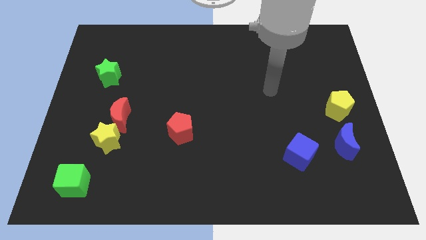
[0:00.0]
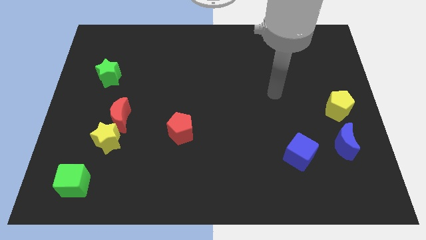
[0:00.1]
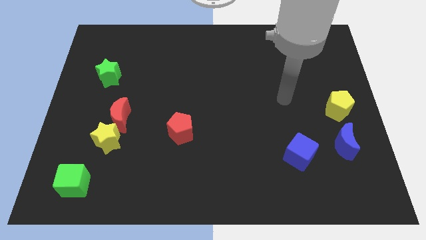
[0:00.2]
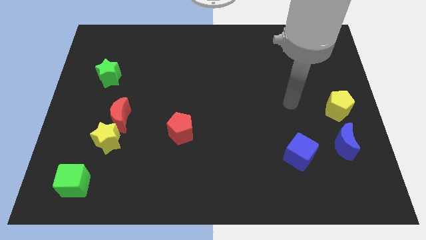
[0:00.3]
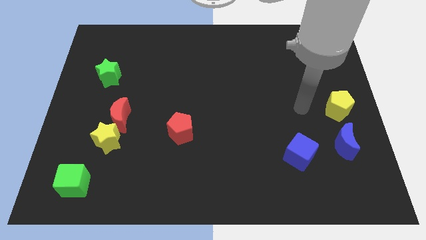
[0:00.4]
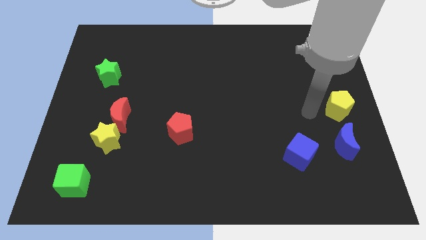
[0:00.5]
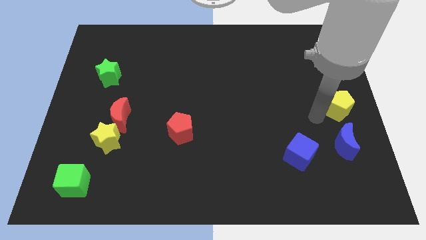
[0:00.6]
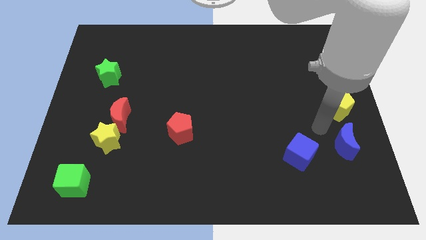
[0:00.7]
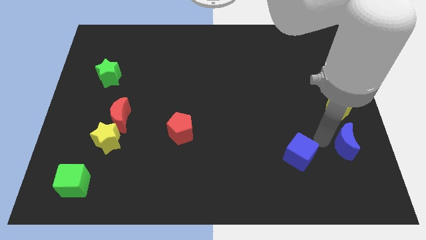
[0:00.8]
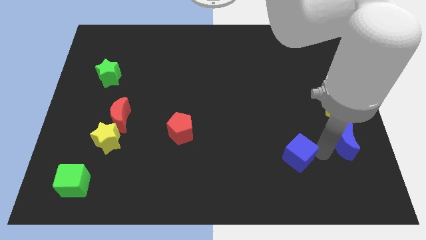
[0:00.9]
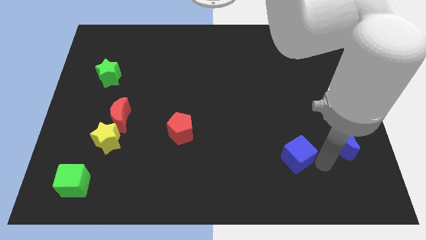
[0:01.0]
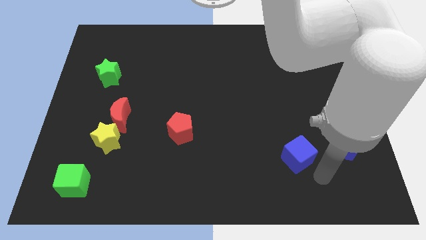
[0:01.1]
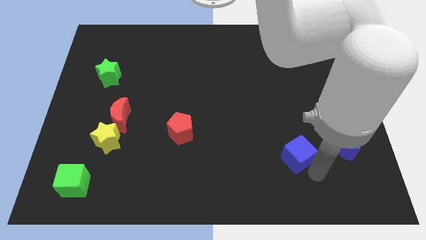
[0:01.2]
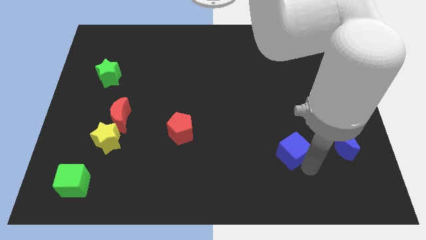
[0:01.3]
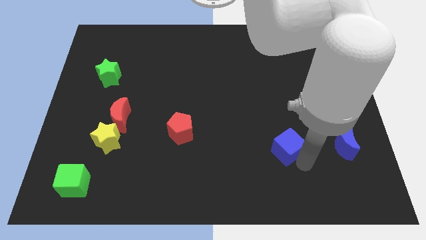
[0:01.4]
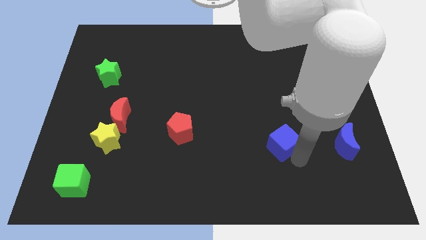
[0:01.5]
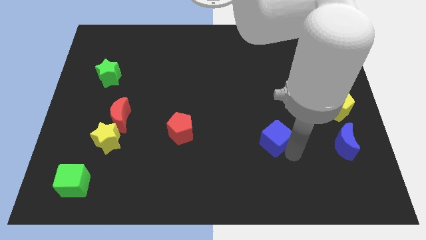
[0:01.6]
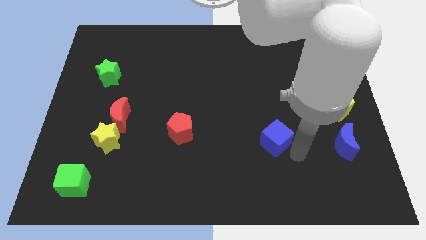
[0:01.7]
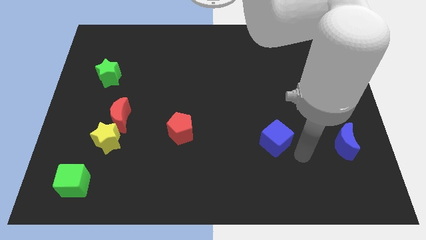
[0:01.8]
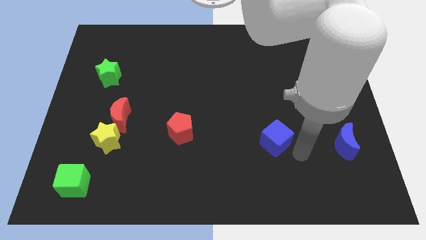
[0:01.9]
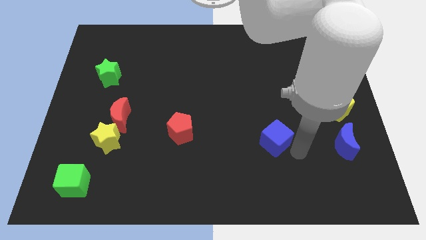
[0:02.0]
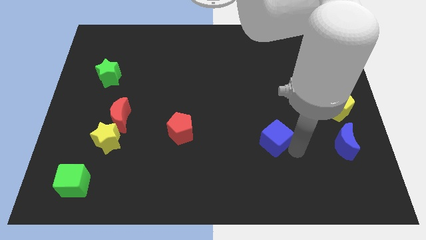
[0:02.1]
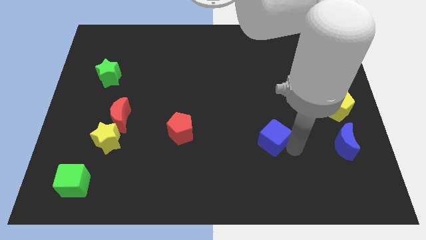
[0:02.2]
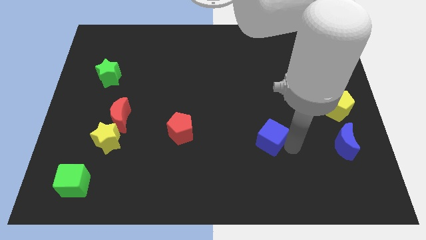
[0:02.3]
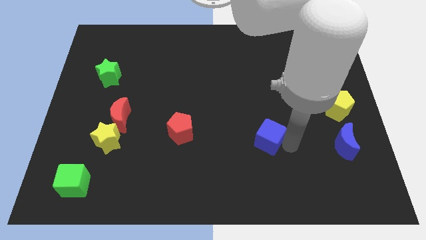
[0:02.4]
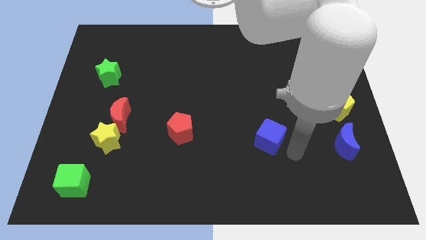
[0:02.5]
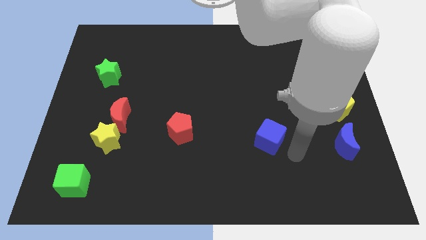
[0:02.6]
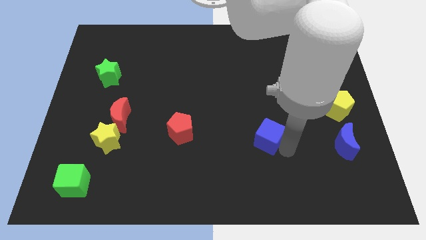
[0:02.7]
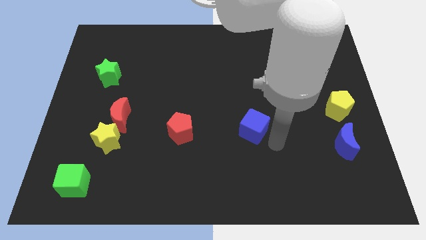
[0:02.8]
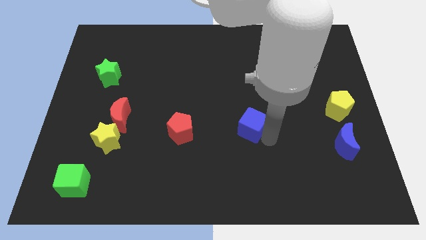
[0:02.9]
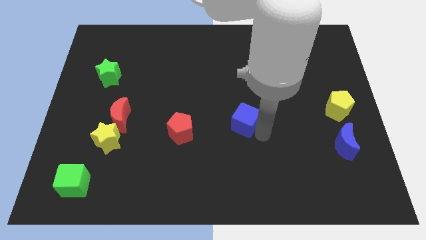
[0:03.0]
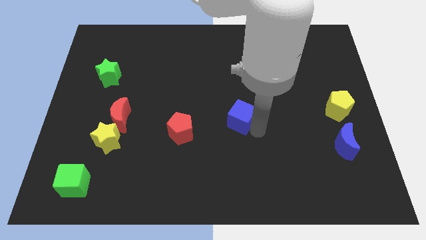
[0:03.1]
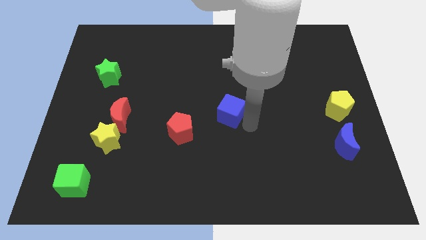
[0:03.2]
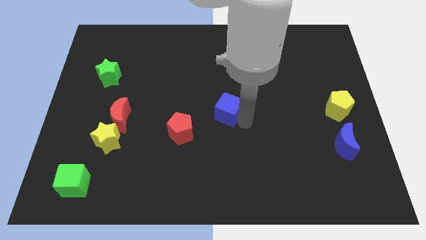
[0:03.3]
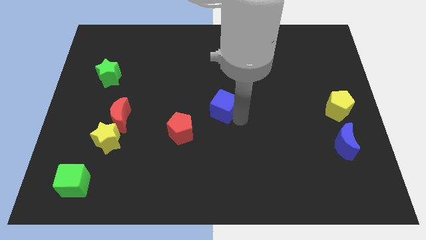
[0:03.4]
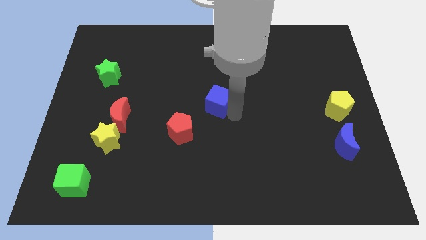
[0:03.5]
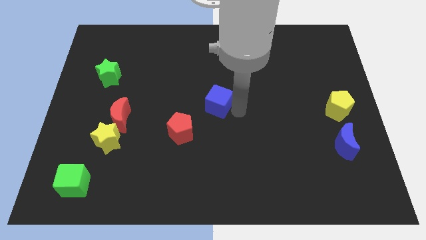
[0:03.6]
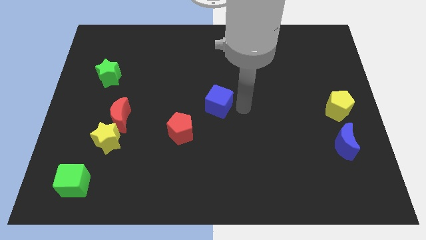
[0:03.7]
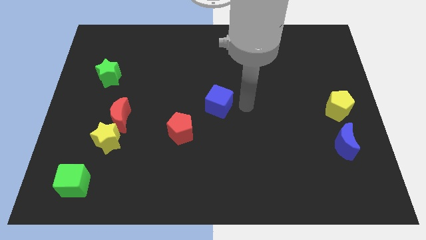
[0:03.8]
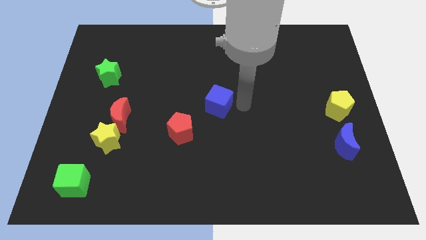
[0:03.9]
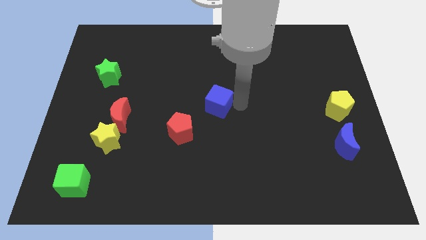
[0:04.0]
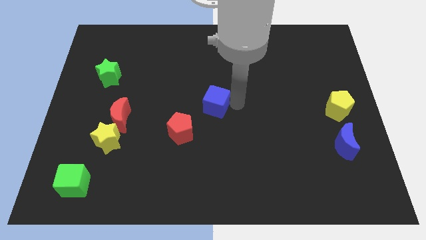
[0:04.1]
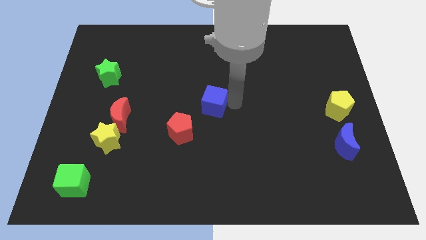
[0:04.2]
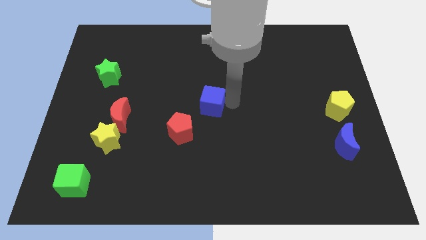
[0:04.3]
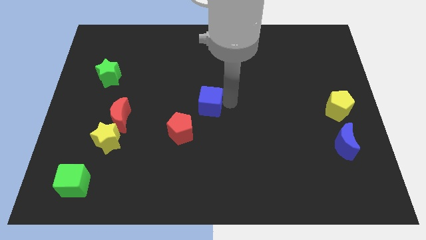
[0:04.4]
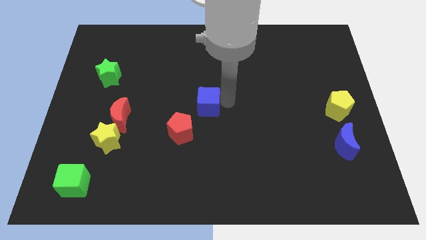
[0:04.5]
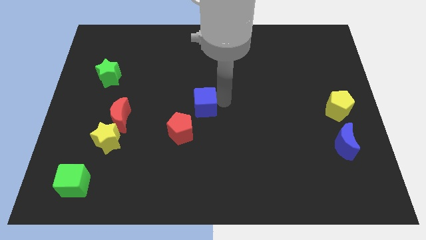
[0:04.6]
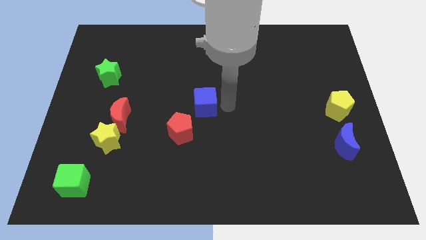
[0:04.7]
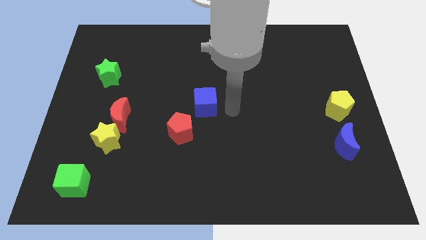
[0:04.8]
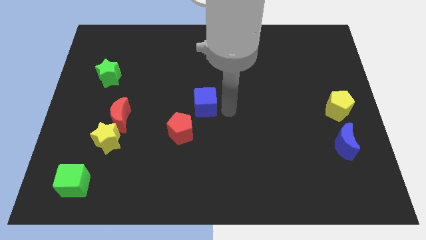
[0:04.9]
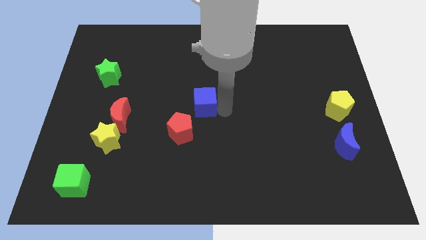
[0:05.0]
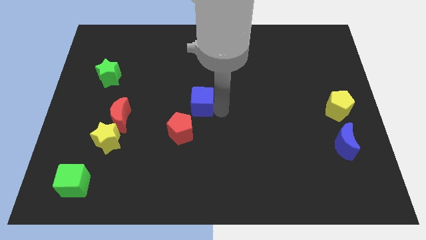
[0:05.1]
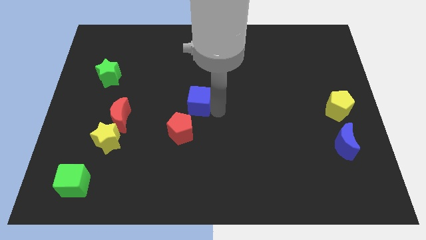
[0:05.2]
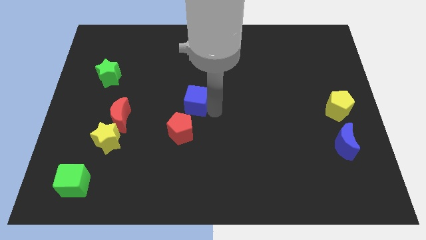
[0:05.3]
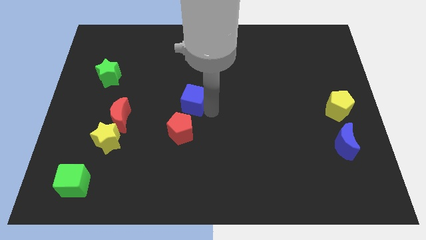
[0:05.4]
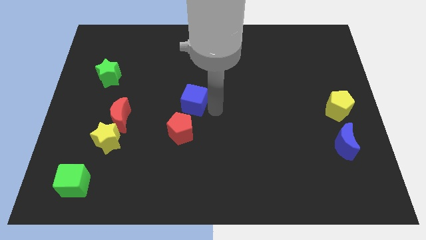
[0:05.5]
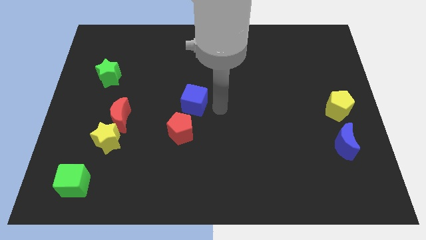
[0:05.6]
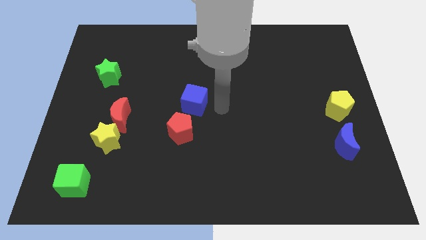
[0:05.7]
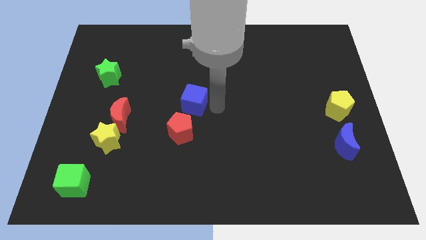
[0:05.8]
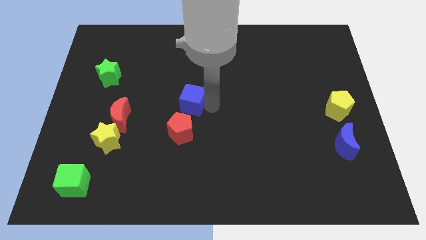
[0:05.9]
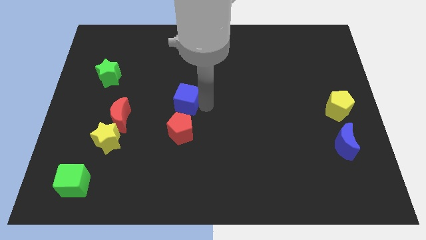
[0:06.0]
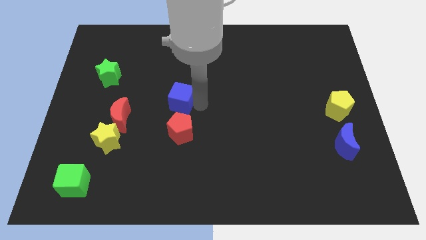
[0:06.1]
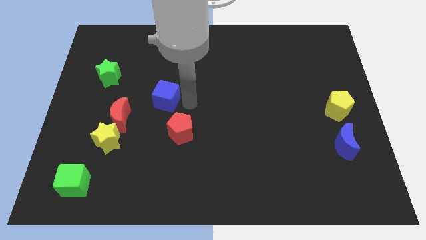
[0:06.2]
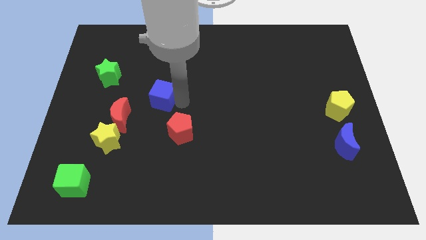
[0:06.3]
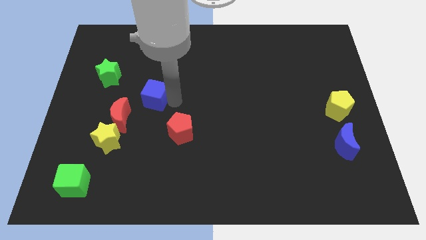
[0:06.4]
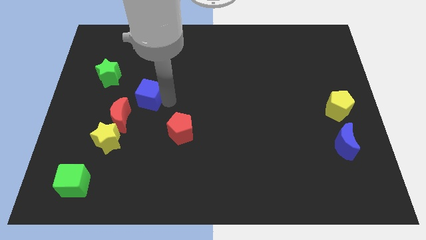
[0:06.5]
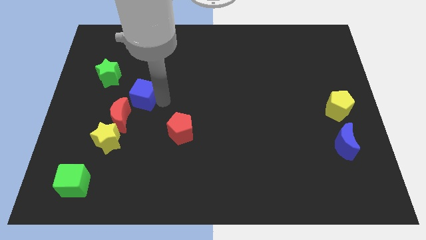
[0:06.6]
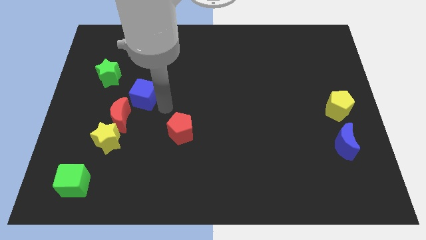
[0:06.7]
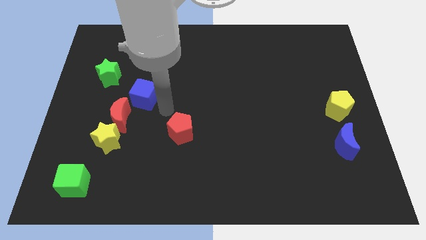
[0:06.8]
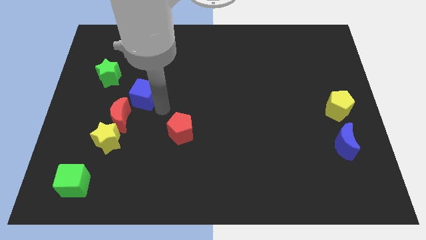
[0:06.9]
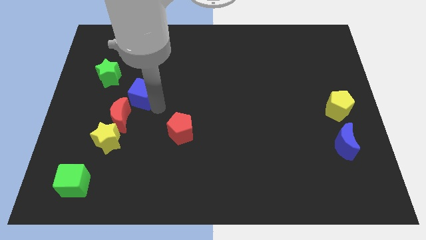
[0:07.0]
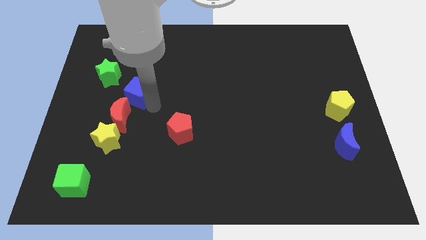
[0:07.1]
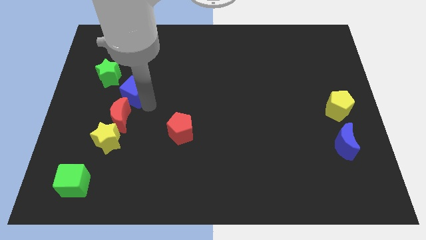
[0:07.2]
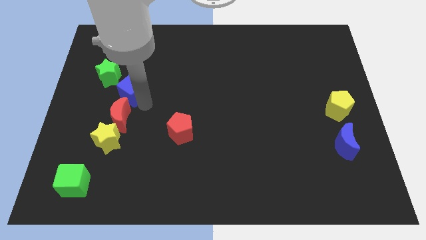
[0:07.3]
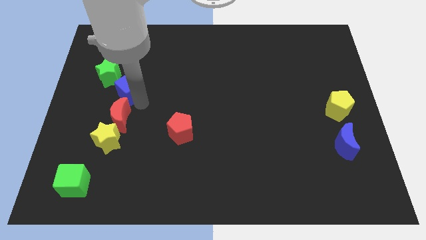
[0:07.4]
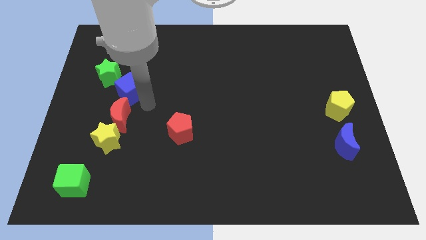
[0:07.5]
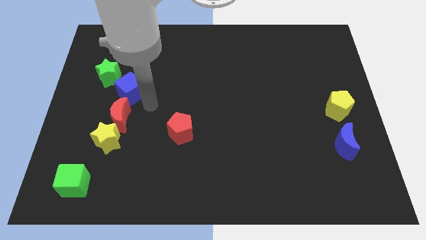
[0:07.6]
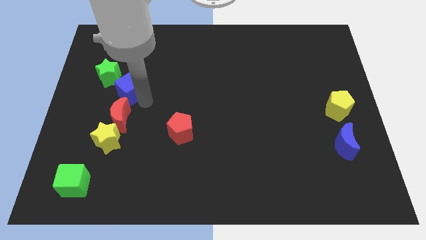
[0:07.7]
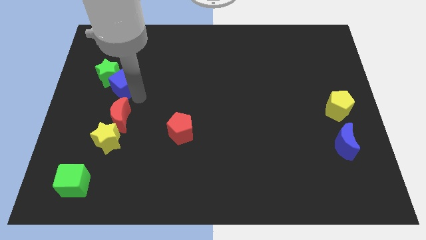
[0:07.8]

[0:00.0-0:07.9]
slide the blue cube next to the green star
